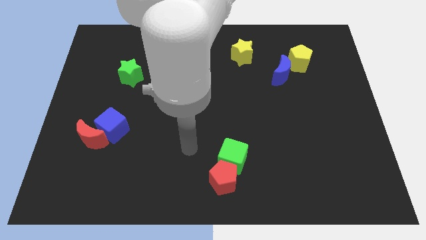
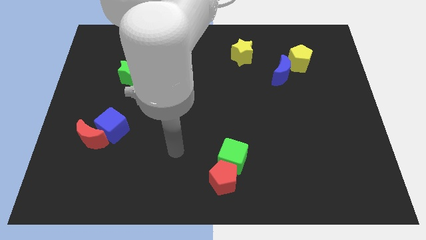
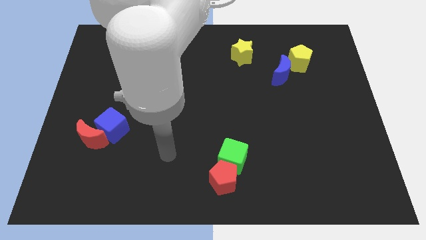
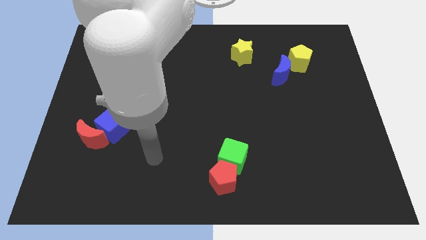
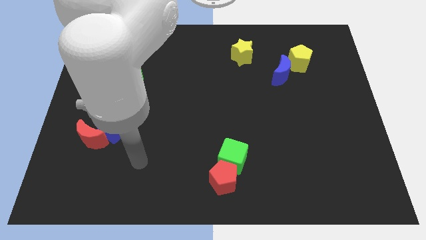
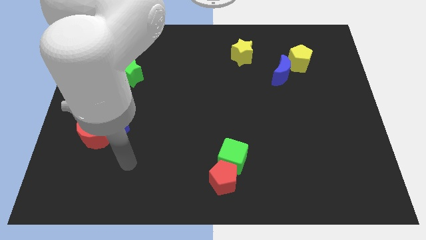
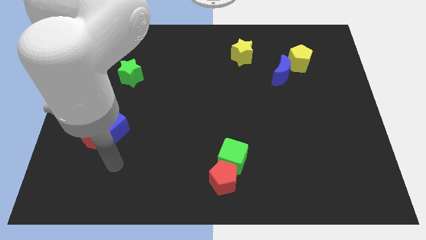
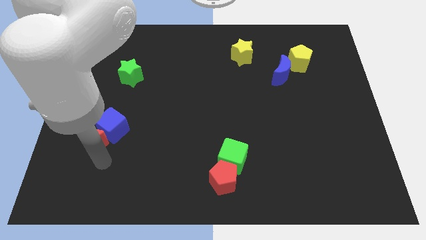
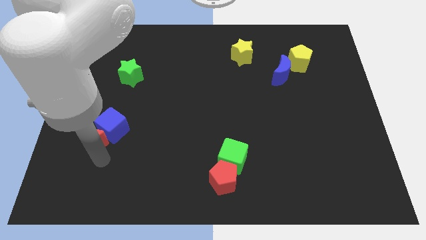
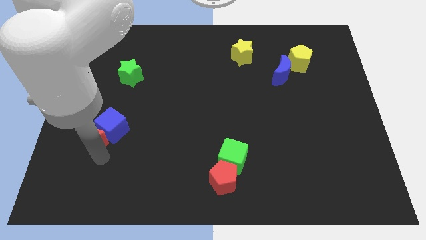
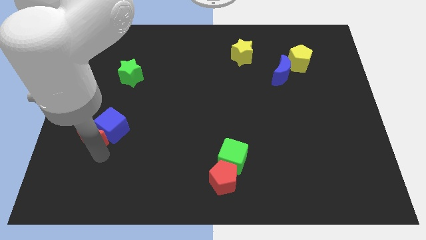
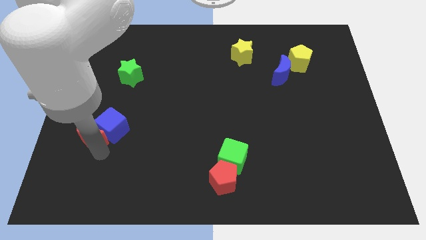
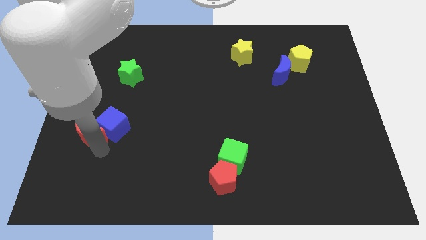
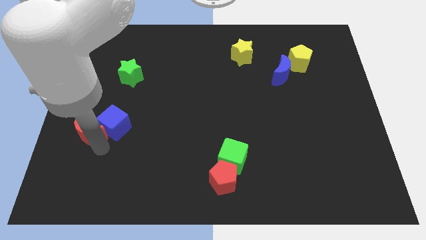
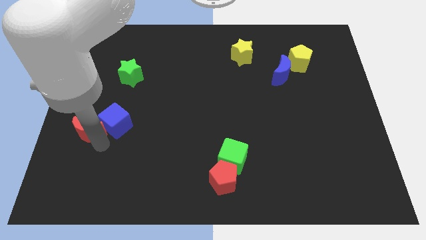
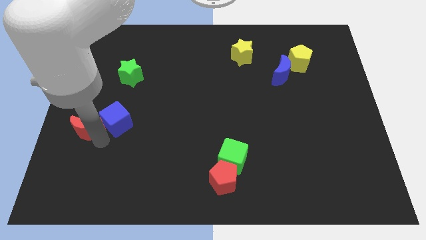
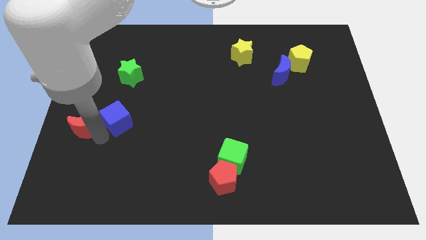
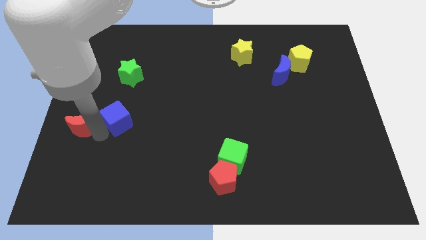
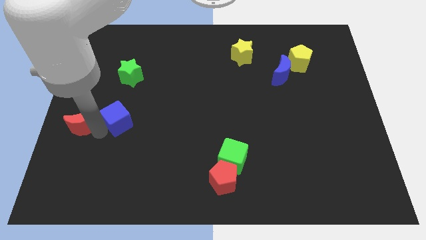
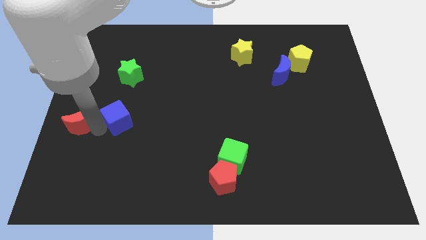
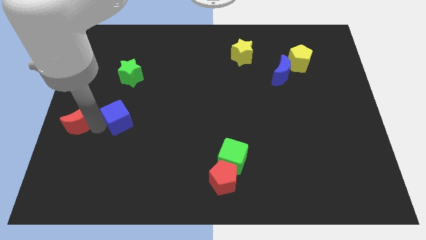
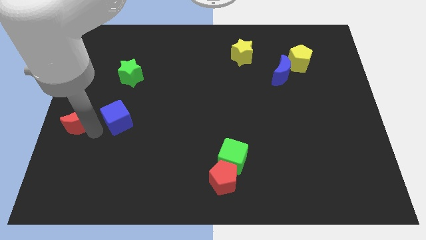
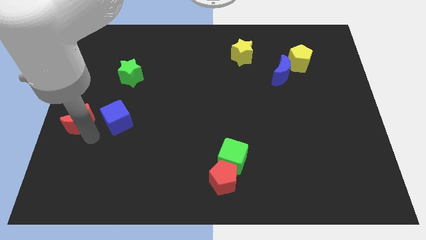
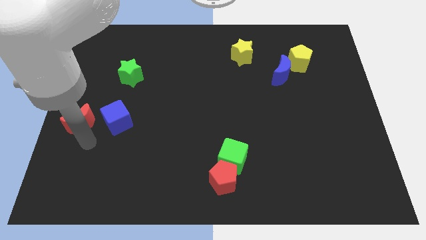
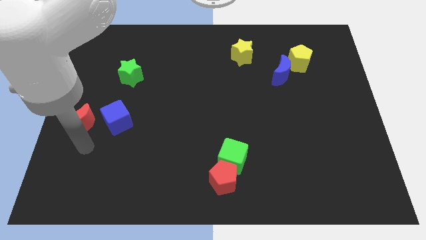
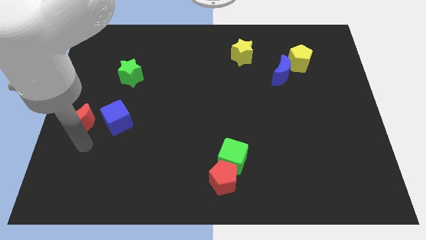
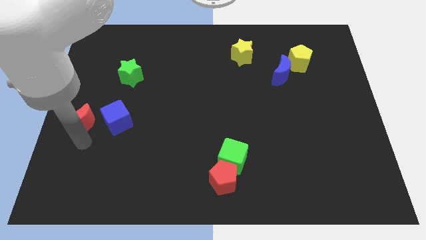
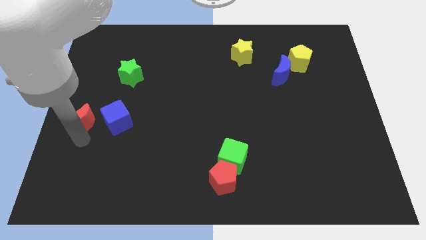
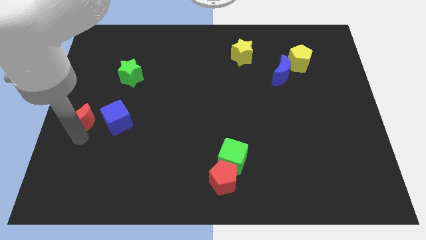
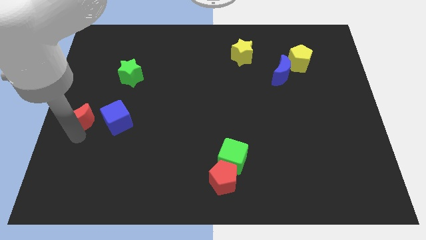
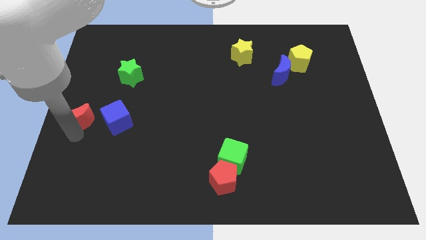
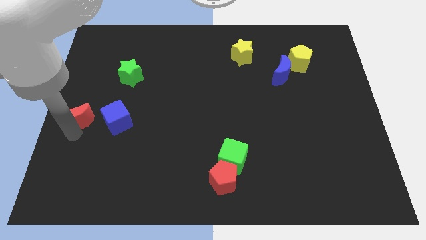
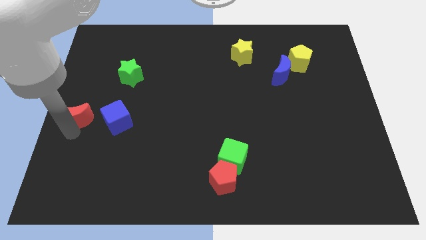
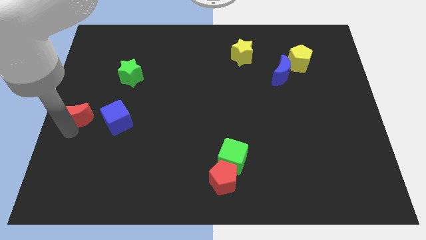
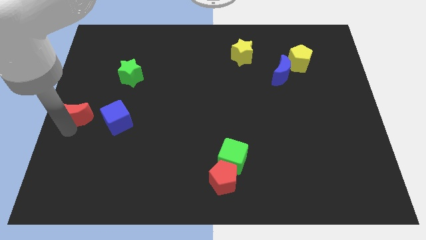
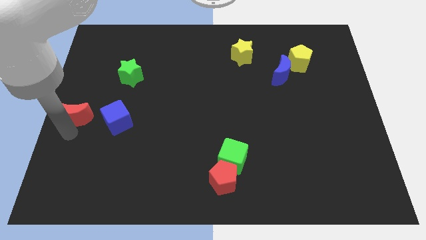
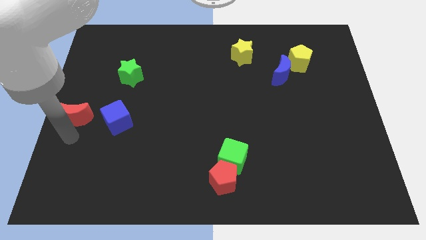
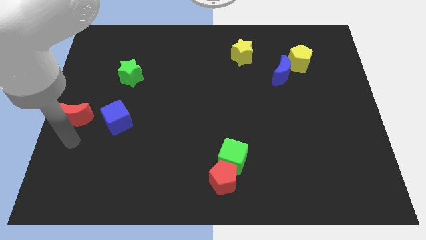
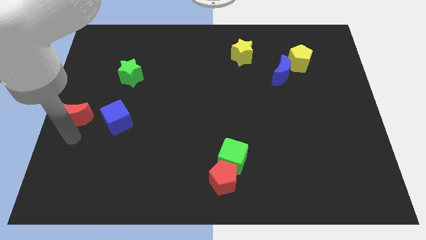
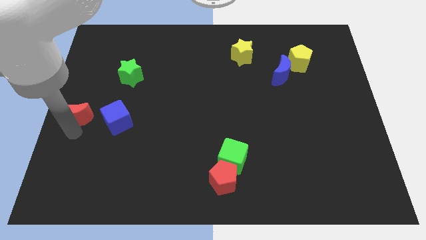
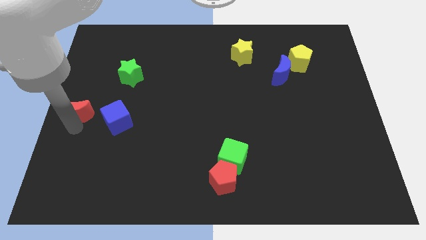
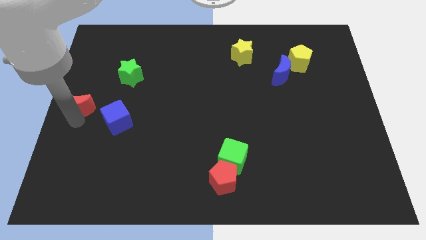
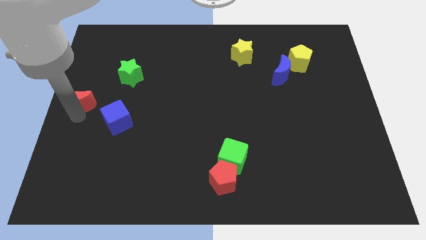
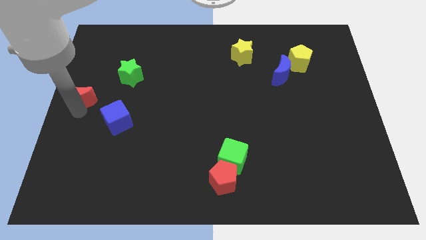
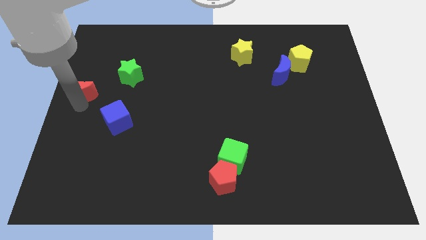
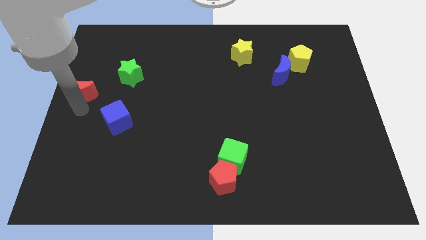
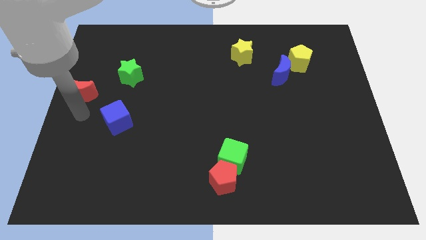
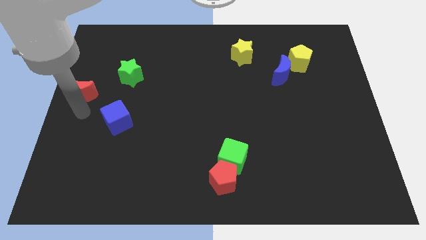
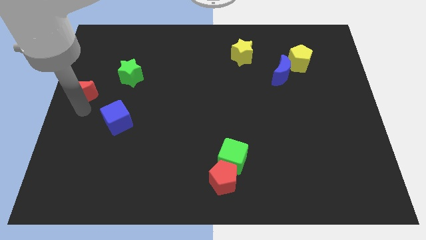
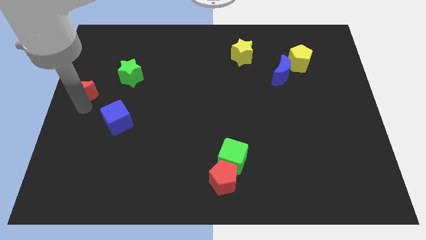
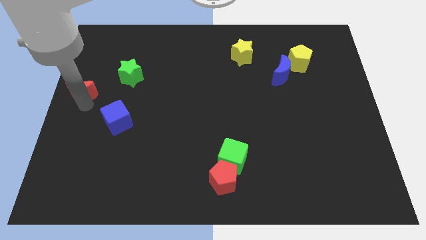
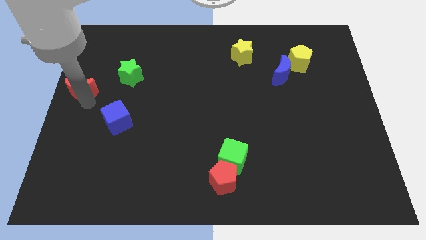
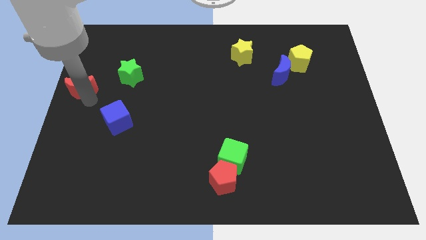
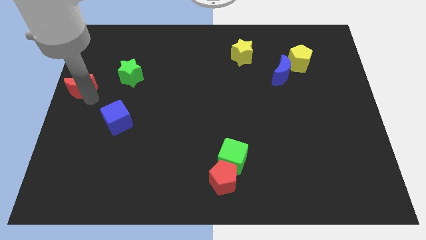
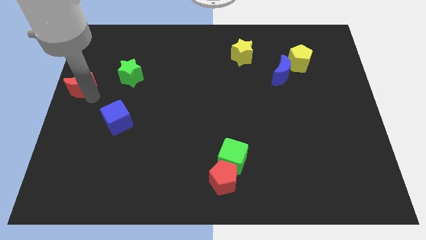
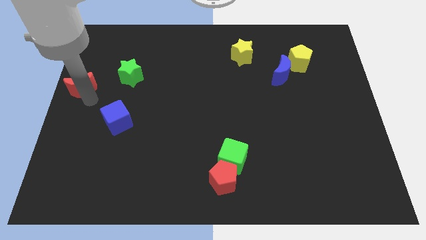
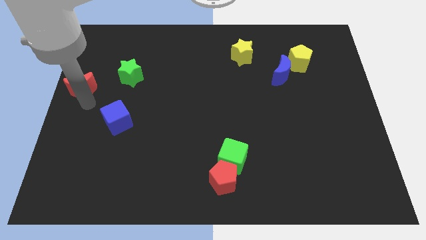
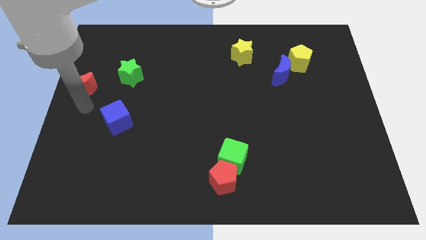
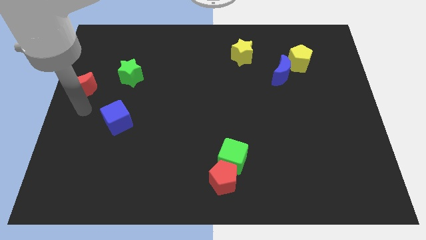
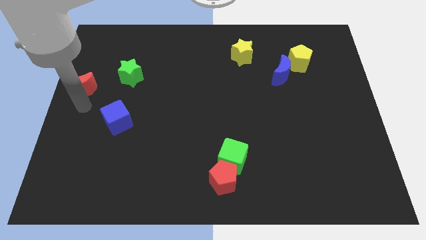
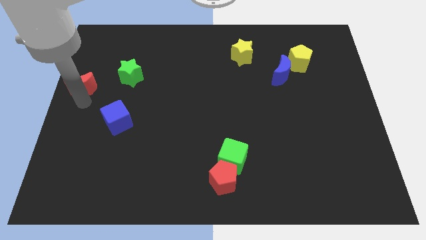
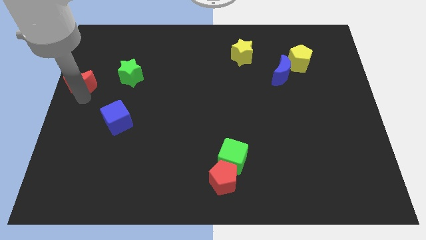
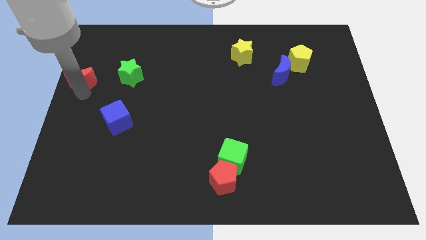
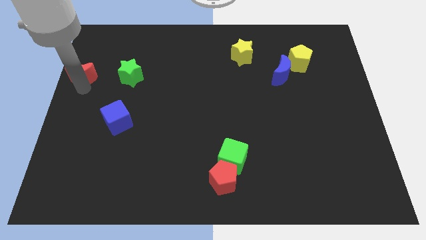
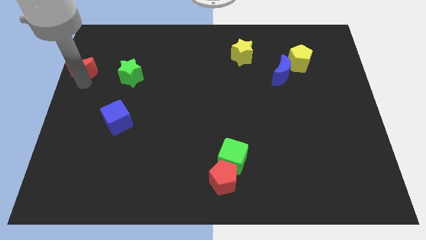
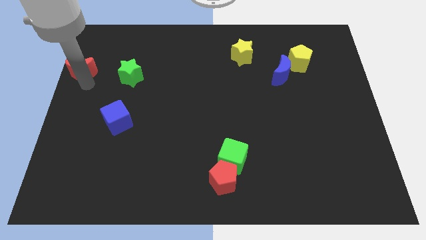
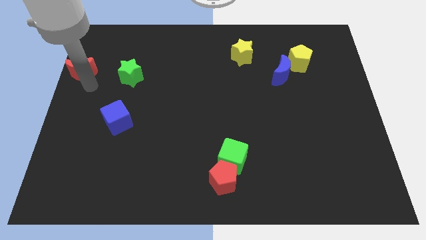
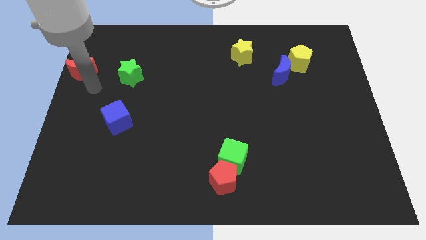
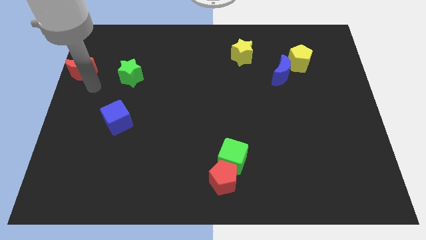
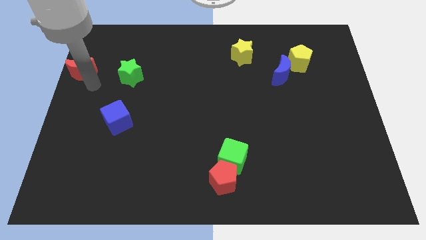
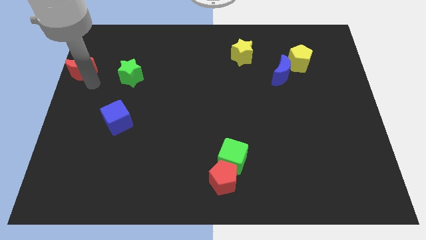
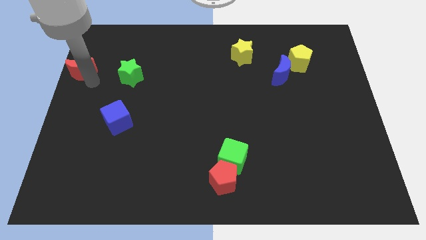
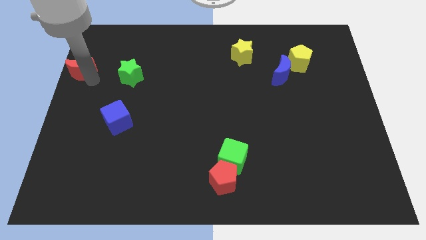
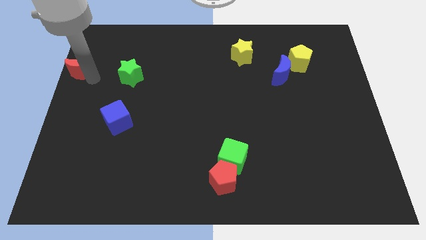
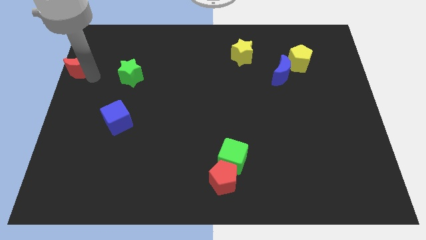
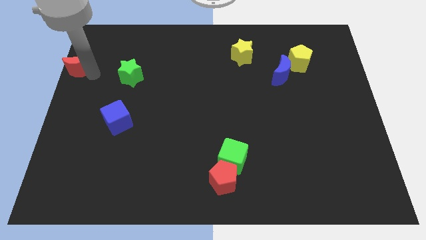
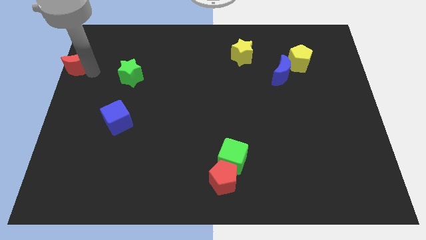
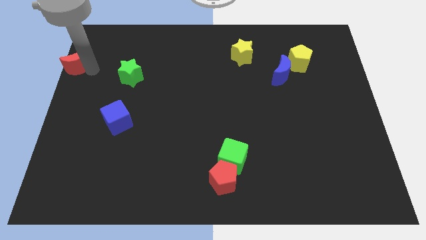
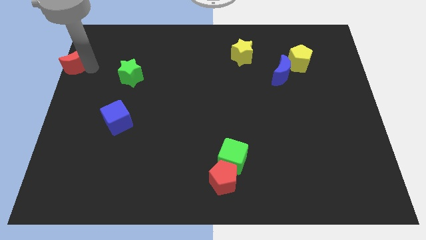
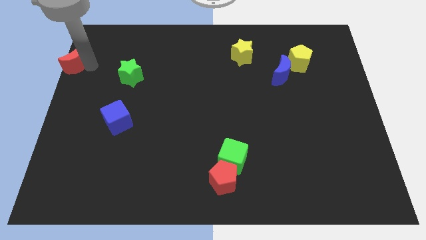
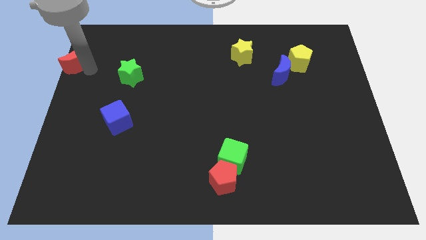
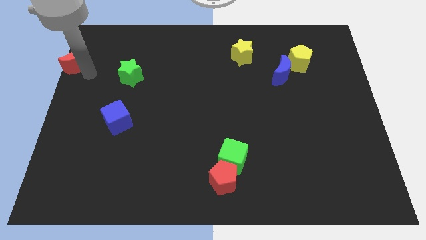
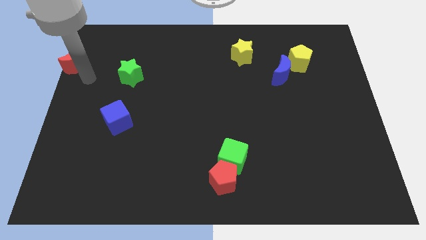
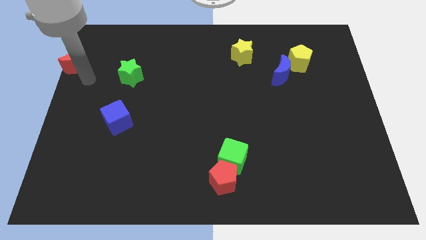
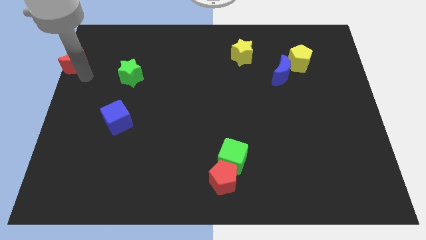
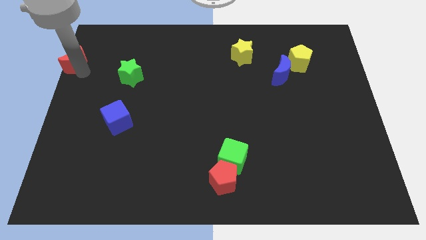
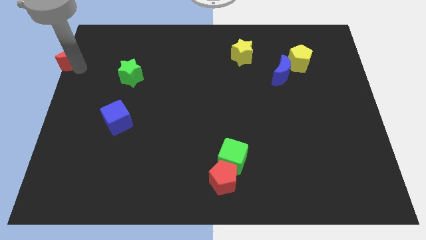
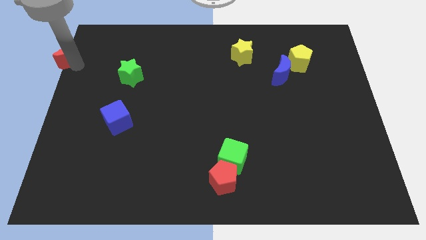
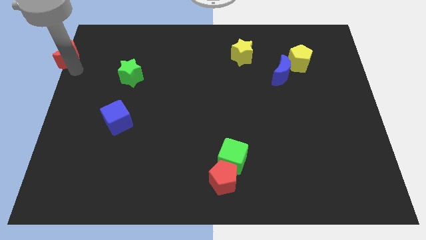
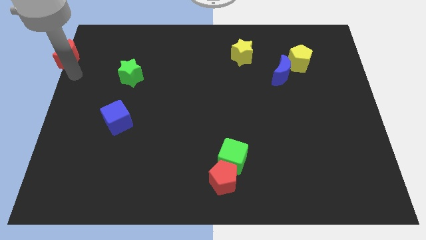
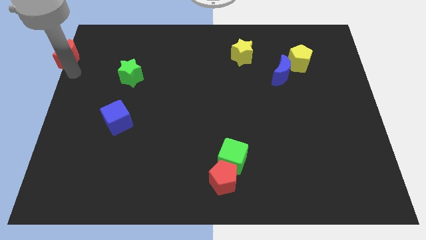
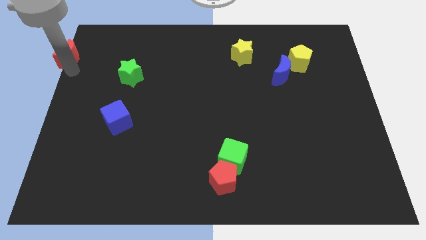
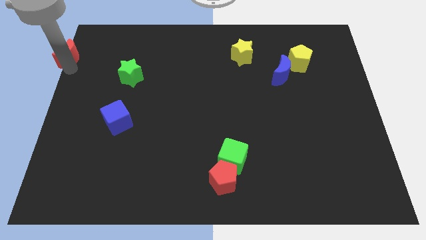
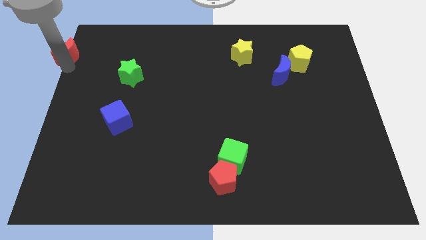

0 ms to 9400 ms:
move the red moon to the top left of the board
